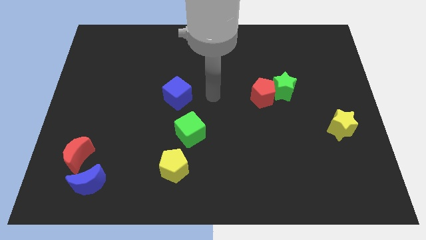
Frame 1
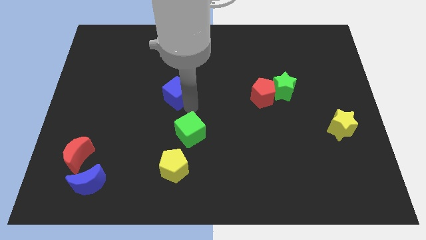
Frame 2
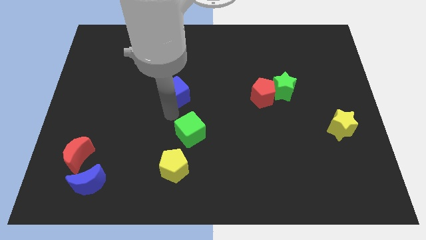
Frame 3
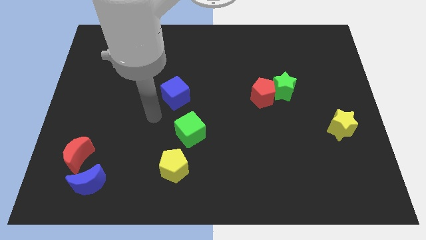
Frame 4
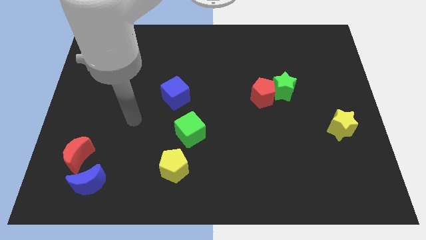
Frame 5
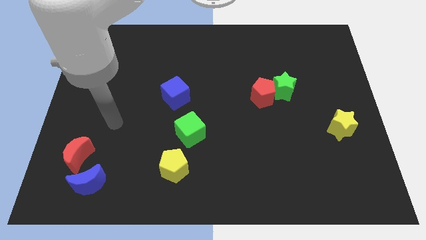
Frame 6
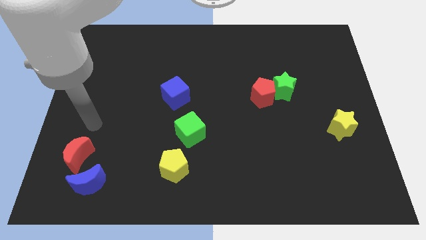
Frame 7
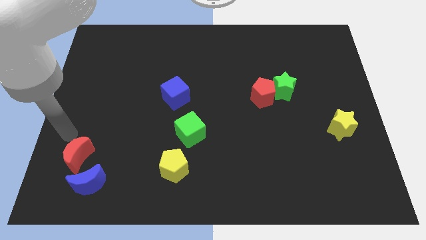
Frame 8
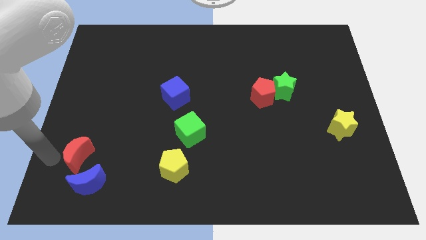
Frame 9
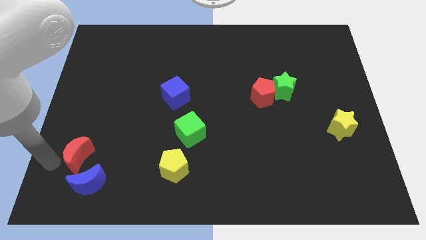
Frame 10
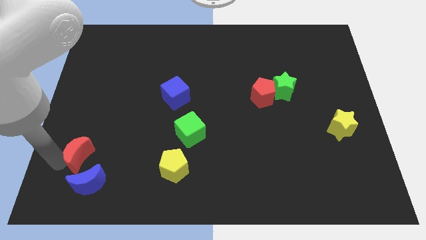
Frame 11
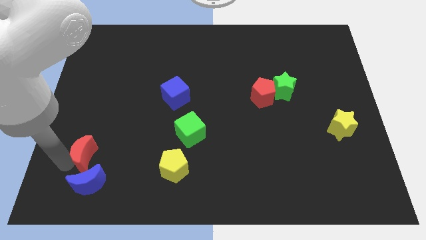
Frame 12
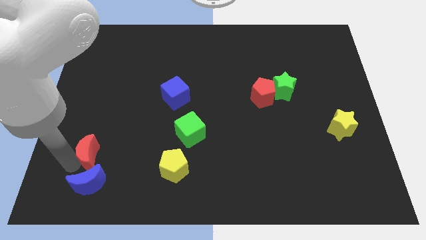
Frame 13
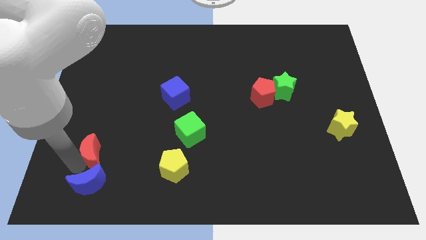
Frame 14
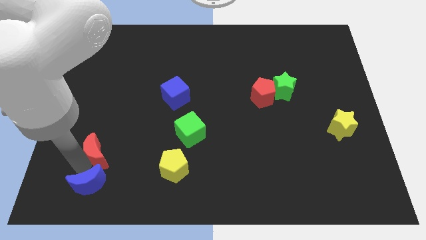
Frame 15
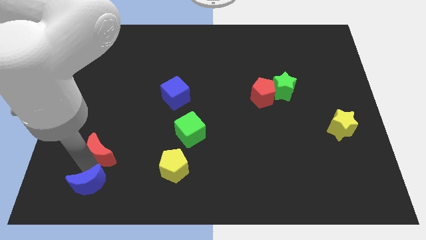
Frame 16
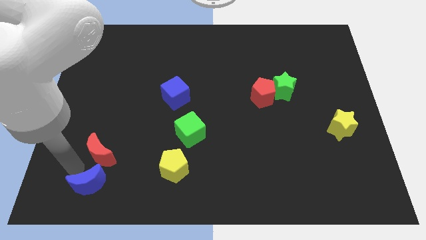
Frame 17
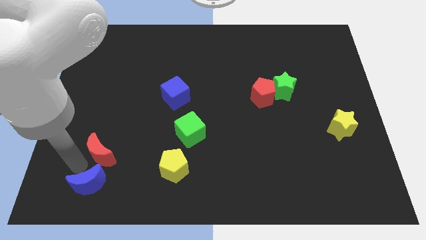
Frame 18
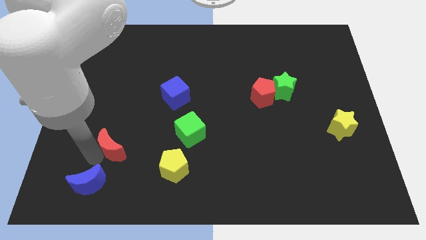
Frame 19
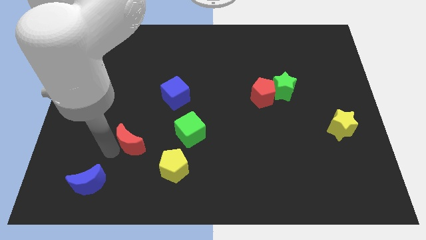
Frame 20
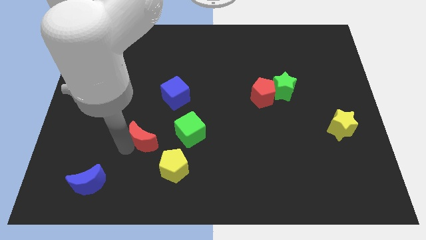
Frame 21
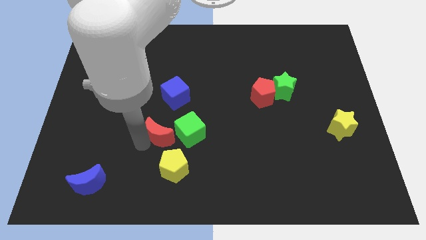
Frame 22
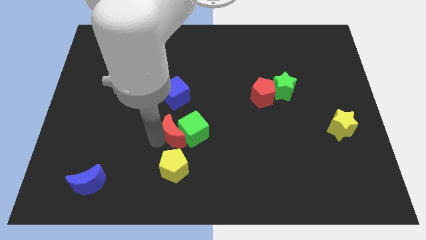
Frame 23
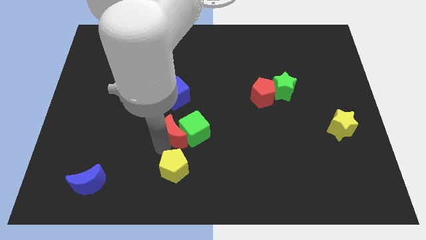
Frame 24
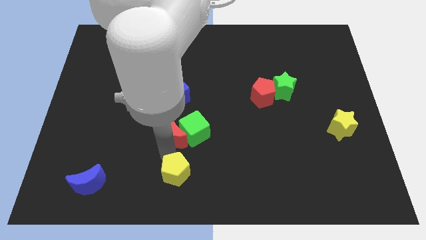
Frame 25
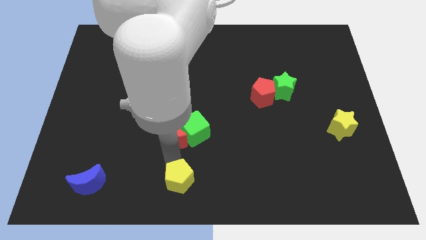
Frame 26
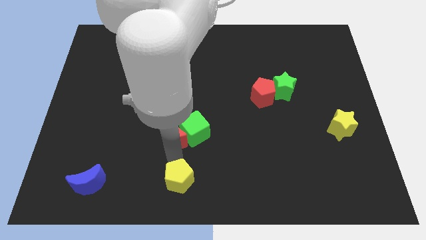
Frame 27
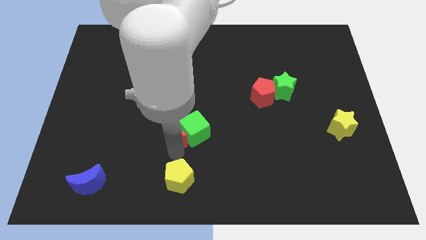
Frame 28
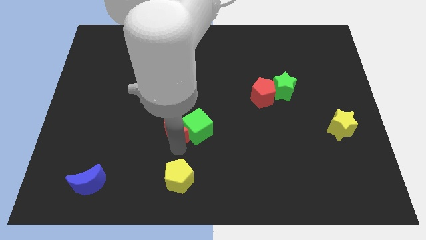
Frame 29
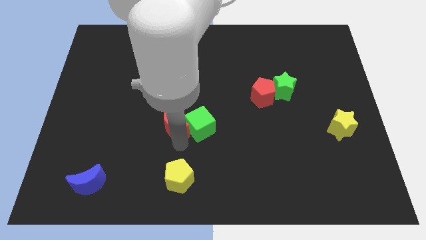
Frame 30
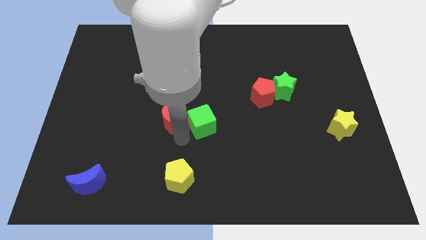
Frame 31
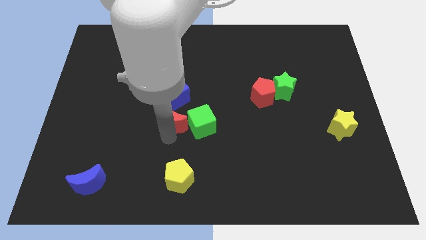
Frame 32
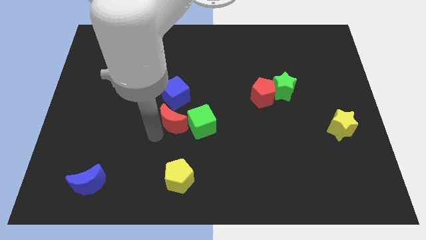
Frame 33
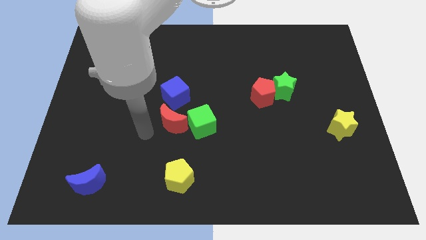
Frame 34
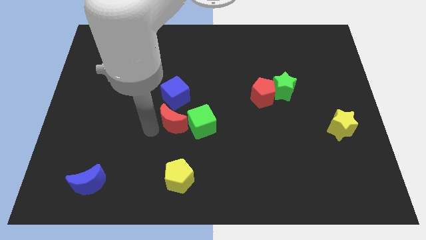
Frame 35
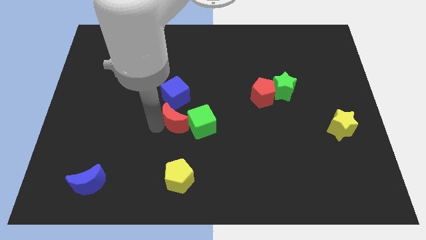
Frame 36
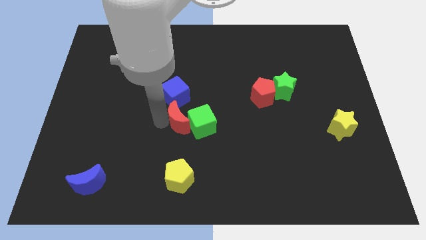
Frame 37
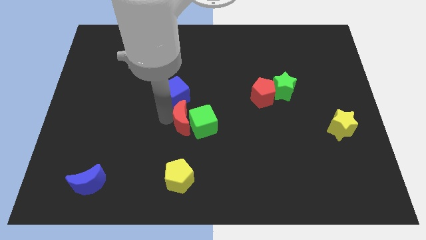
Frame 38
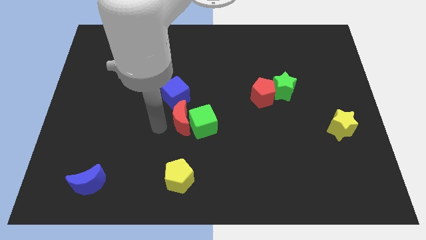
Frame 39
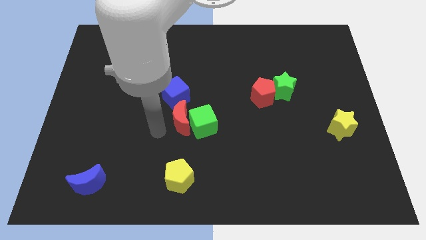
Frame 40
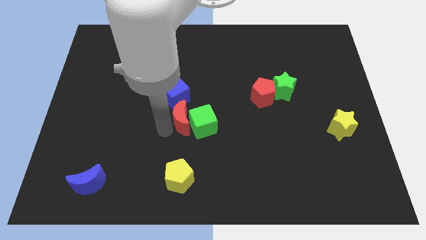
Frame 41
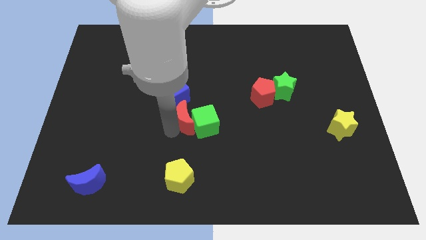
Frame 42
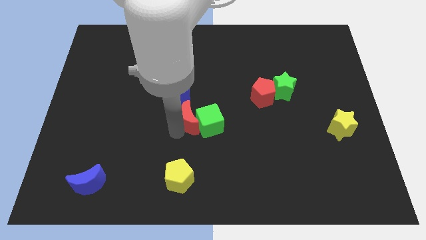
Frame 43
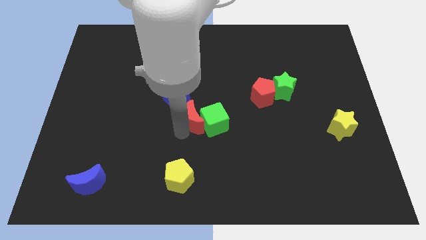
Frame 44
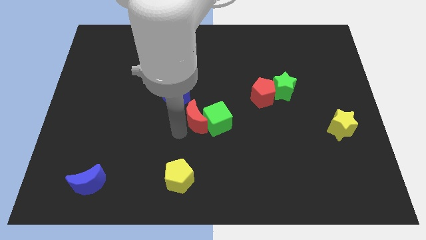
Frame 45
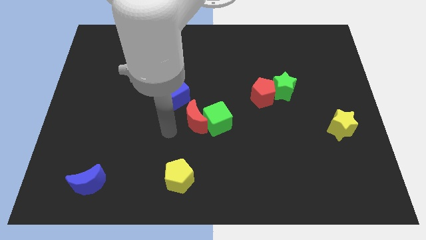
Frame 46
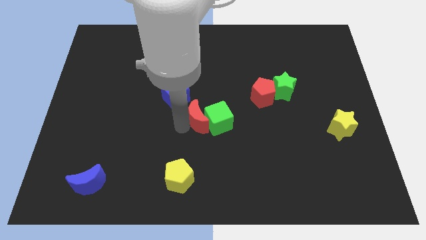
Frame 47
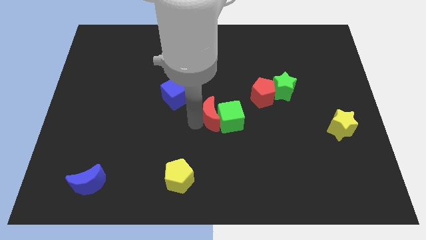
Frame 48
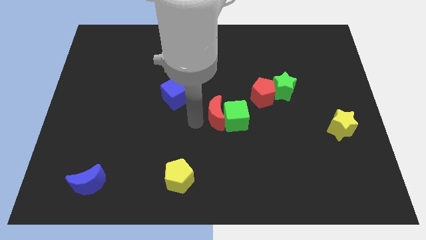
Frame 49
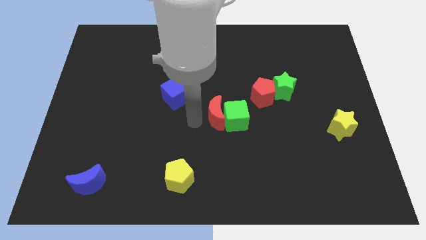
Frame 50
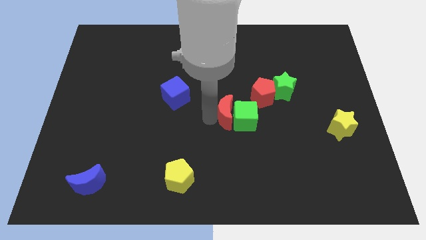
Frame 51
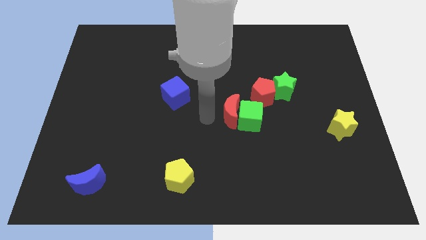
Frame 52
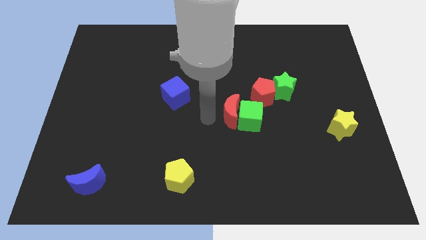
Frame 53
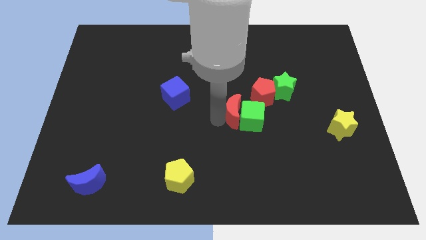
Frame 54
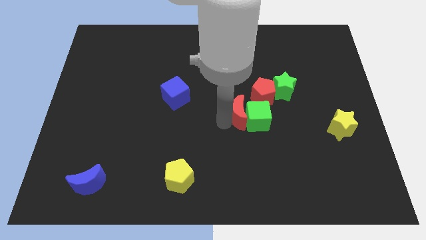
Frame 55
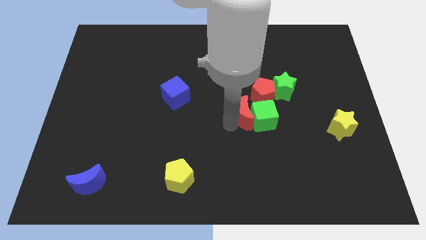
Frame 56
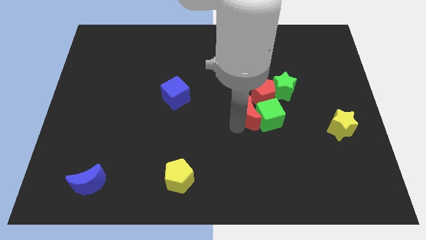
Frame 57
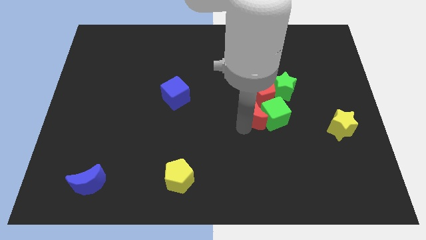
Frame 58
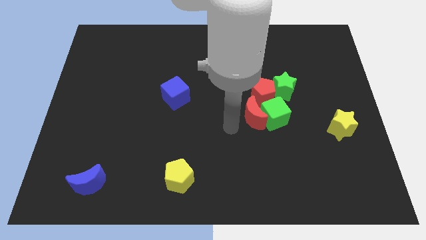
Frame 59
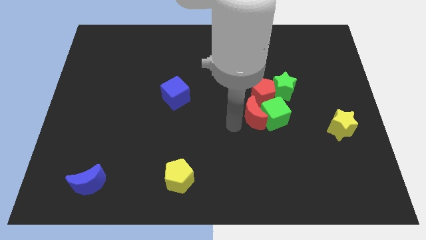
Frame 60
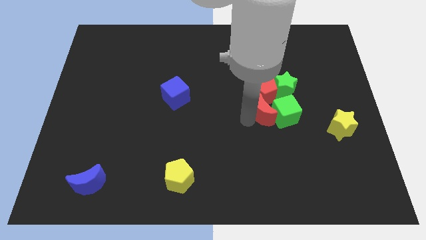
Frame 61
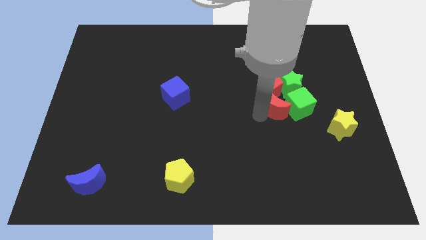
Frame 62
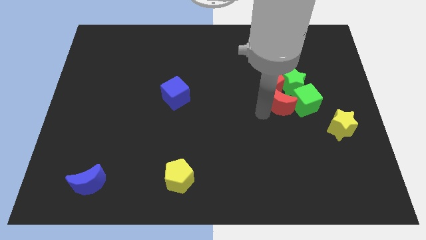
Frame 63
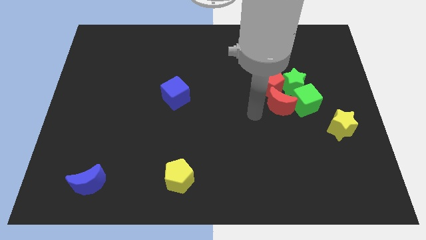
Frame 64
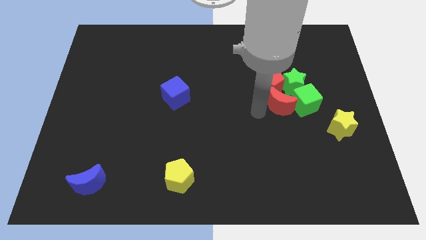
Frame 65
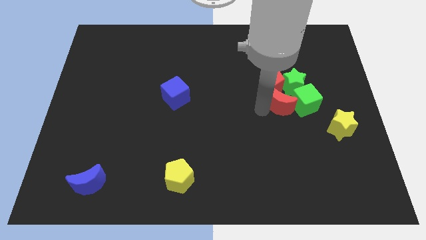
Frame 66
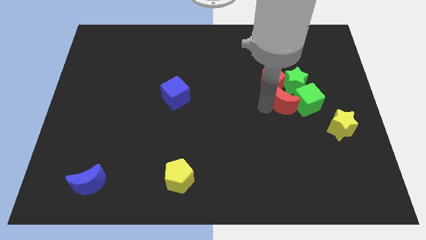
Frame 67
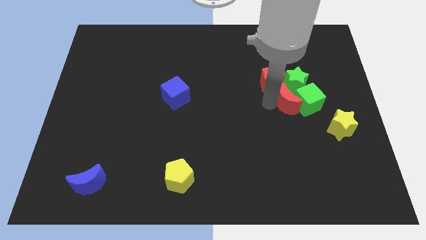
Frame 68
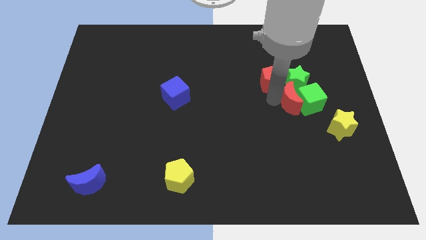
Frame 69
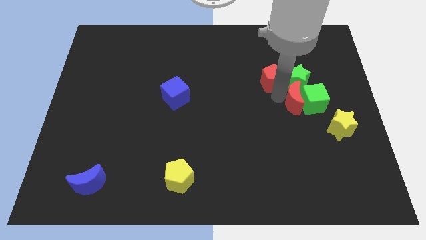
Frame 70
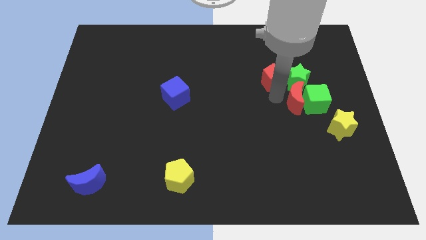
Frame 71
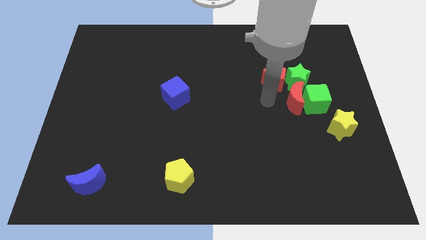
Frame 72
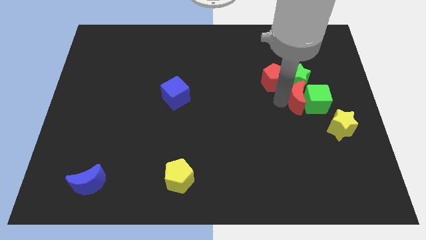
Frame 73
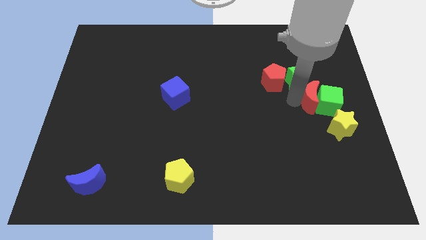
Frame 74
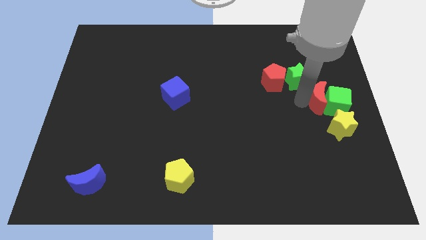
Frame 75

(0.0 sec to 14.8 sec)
put the red moon to the top side of the yellow star
